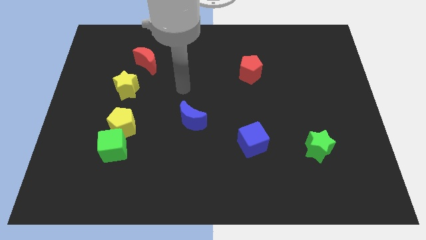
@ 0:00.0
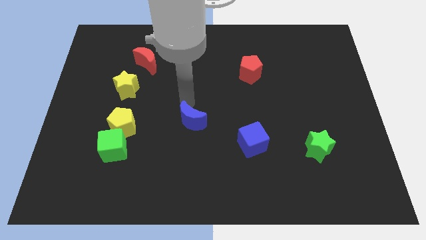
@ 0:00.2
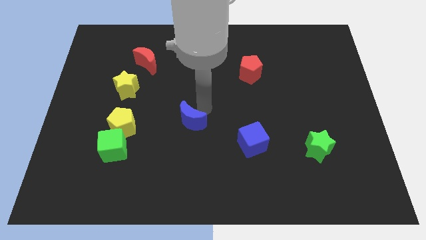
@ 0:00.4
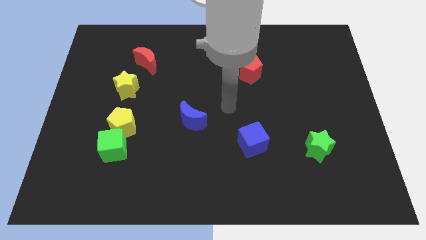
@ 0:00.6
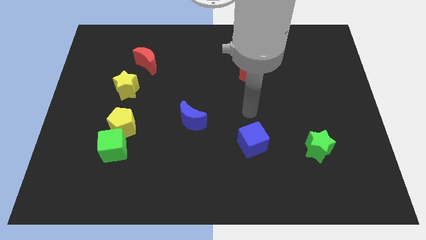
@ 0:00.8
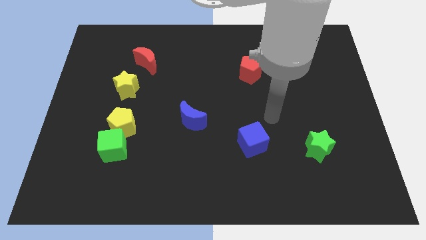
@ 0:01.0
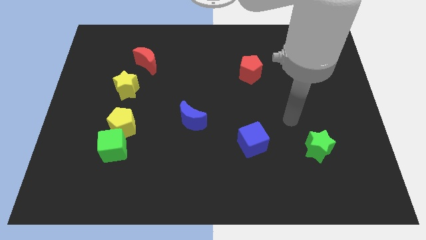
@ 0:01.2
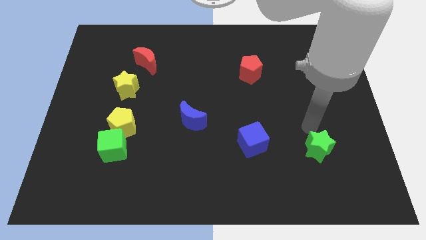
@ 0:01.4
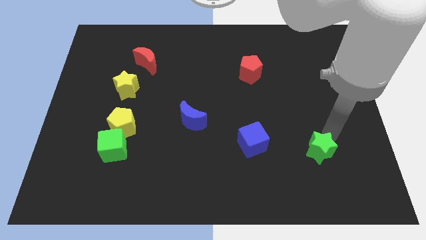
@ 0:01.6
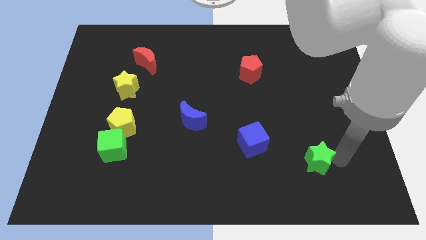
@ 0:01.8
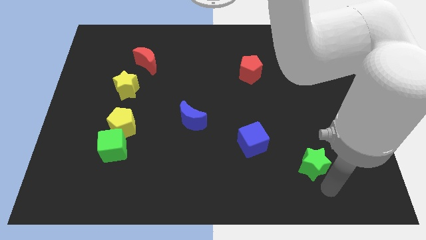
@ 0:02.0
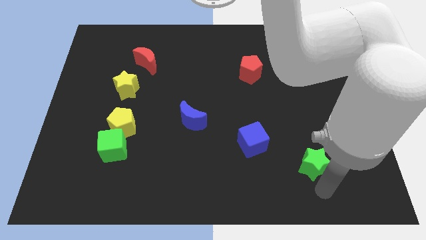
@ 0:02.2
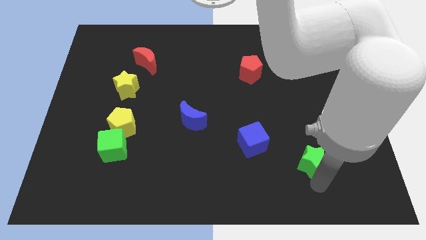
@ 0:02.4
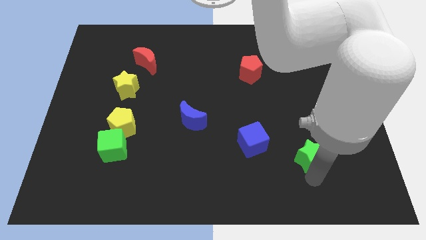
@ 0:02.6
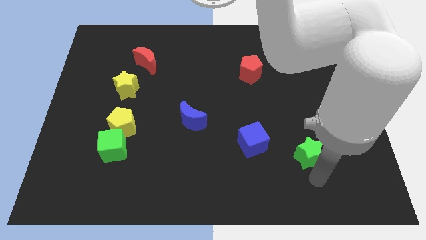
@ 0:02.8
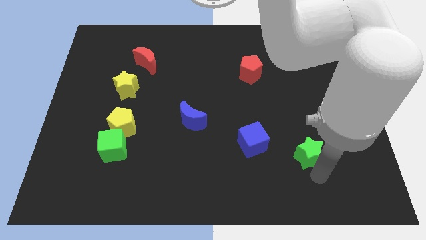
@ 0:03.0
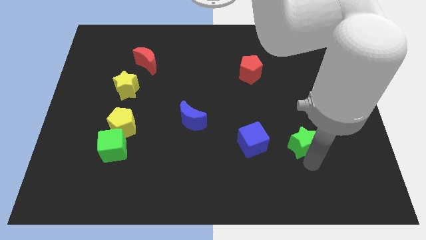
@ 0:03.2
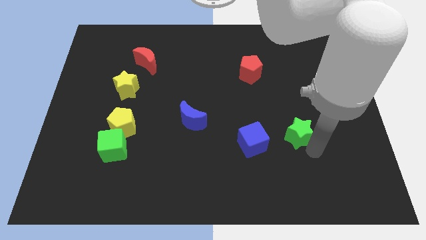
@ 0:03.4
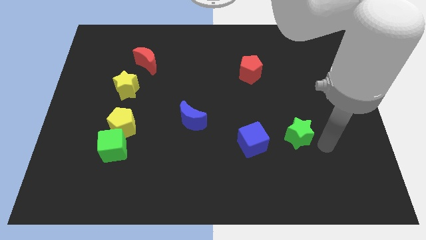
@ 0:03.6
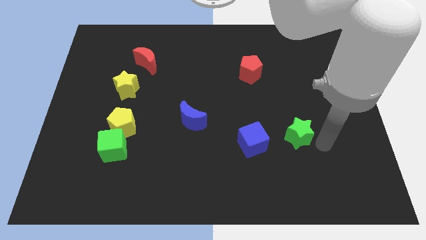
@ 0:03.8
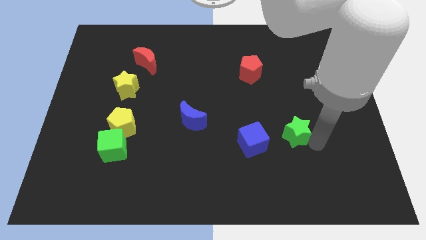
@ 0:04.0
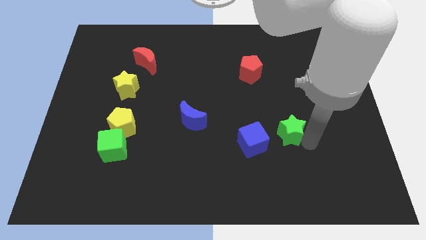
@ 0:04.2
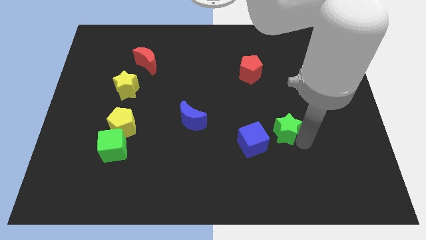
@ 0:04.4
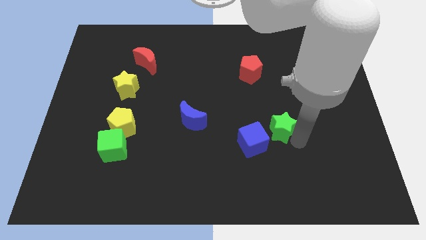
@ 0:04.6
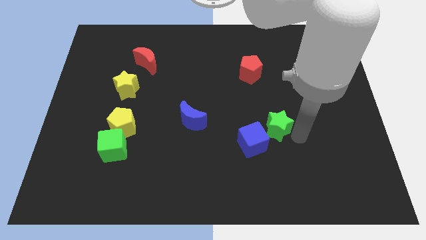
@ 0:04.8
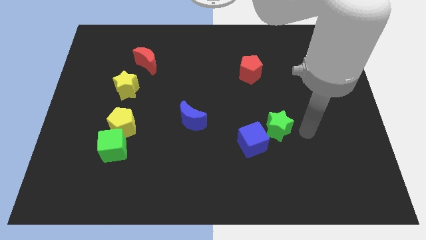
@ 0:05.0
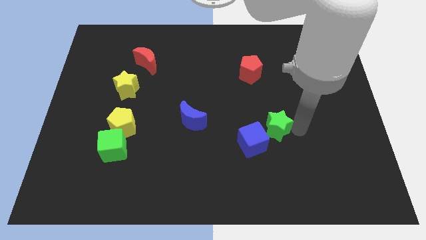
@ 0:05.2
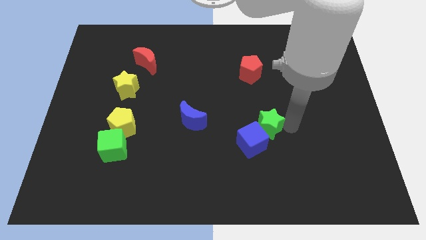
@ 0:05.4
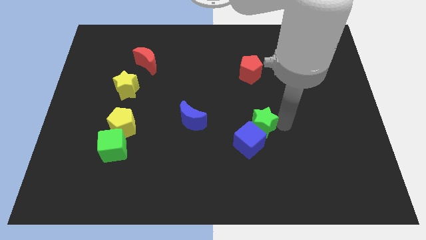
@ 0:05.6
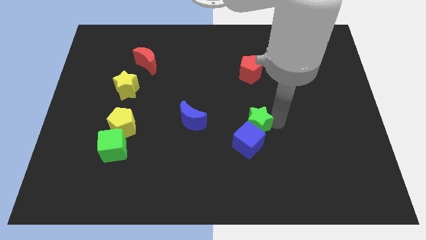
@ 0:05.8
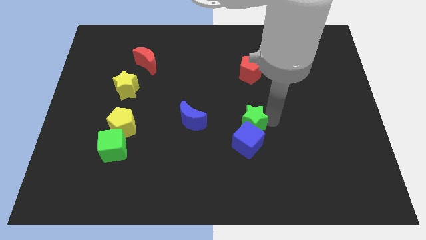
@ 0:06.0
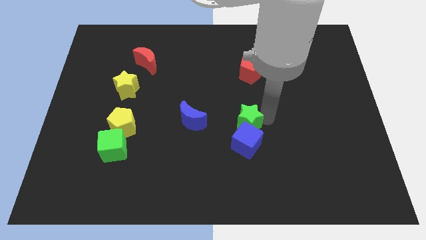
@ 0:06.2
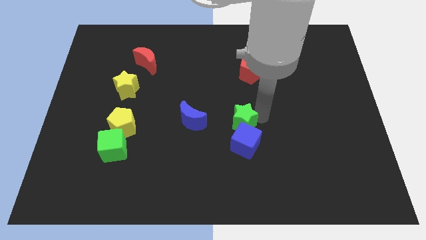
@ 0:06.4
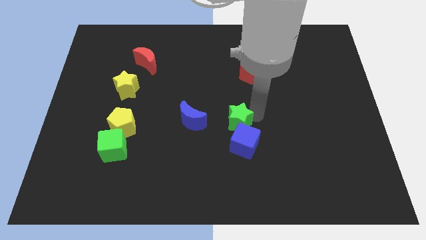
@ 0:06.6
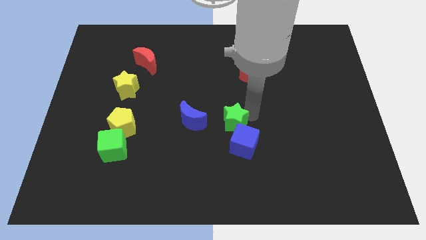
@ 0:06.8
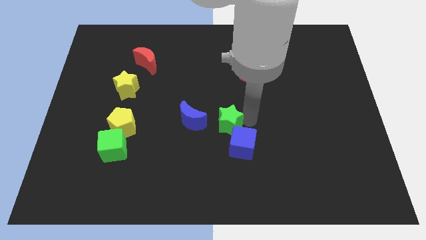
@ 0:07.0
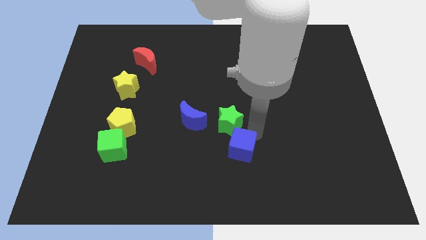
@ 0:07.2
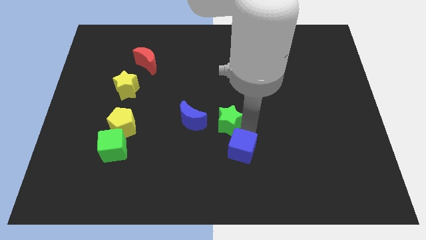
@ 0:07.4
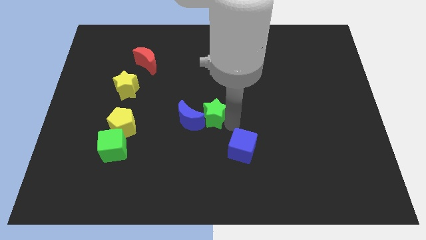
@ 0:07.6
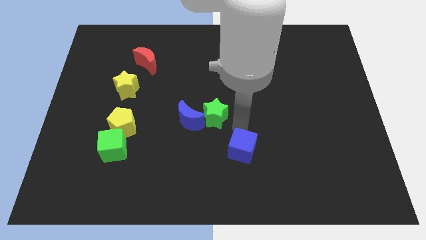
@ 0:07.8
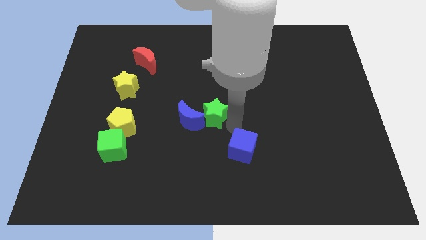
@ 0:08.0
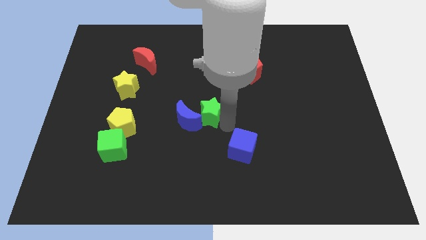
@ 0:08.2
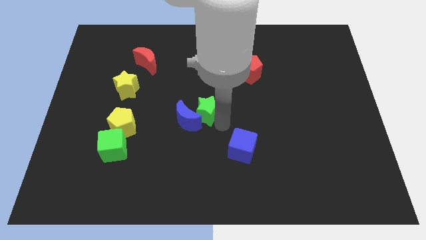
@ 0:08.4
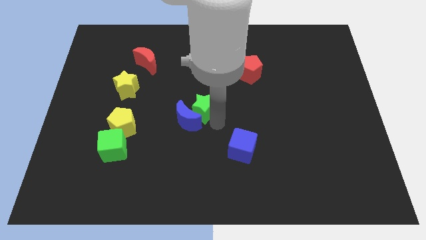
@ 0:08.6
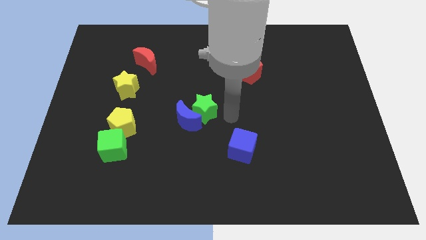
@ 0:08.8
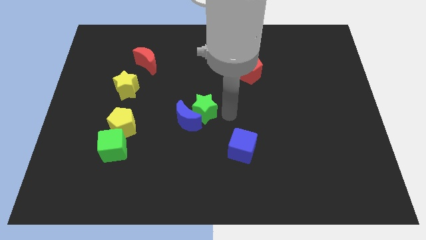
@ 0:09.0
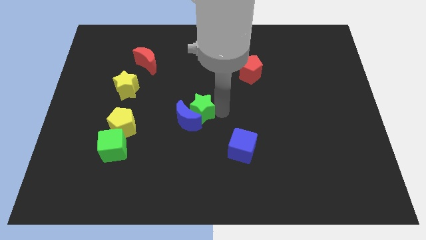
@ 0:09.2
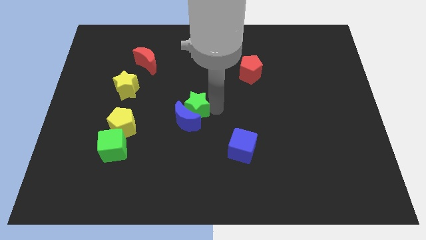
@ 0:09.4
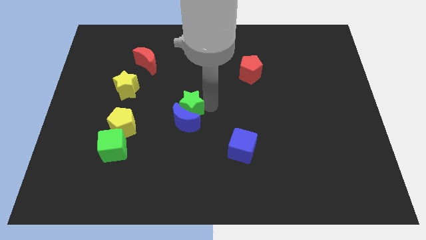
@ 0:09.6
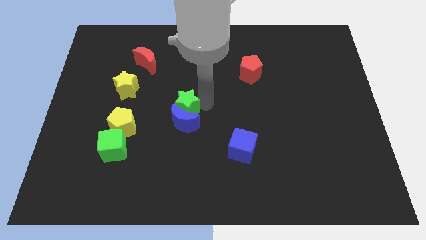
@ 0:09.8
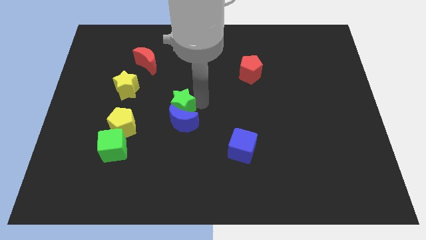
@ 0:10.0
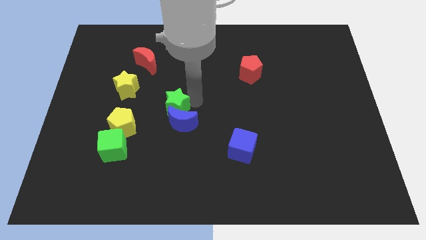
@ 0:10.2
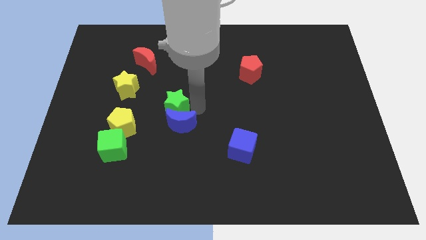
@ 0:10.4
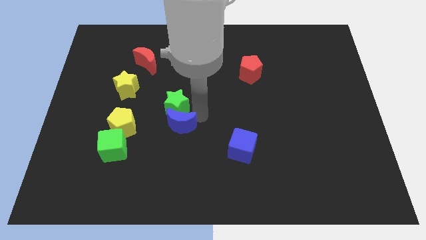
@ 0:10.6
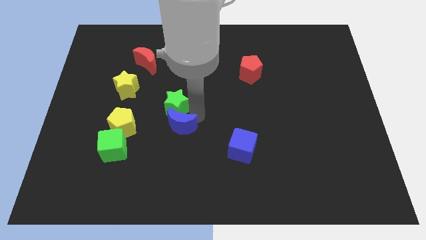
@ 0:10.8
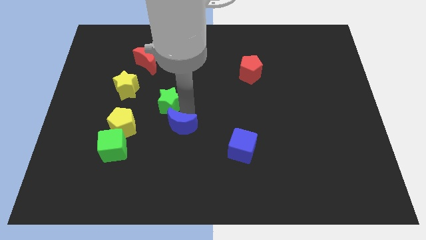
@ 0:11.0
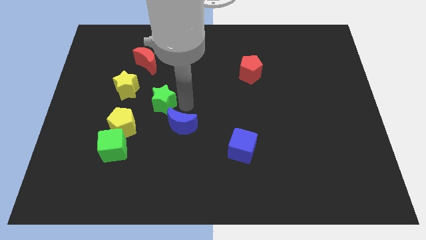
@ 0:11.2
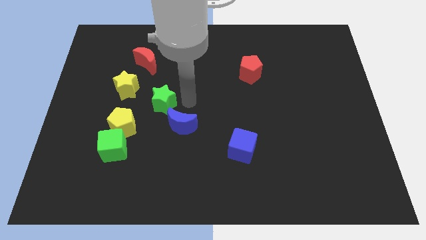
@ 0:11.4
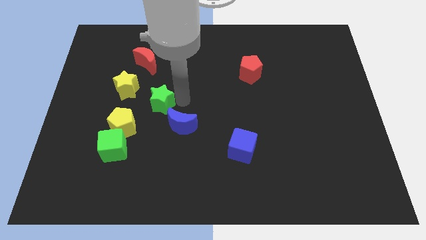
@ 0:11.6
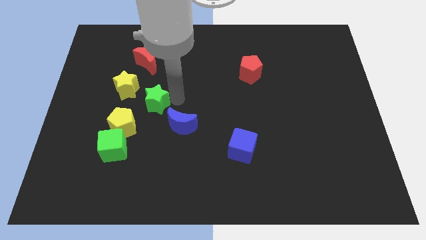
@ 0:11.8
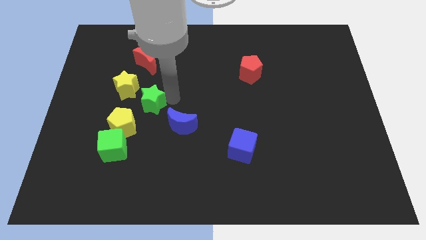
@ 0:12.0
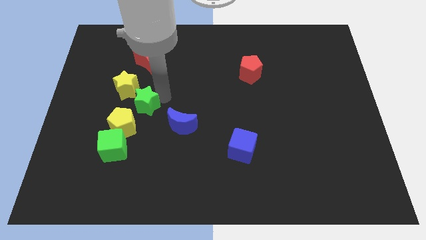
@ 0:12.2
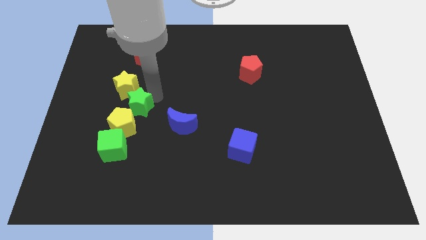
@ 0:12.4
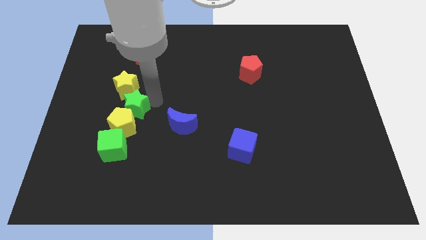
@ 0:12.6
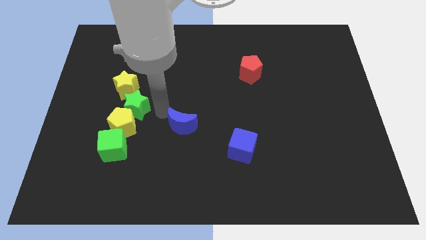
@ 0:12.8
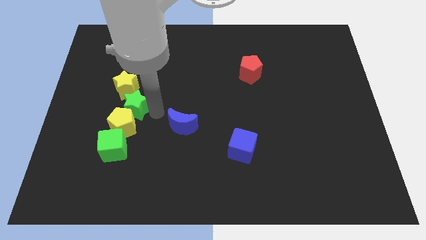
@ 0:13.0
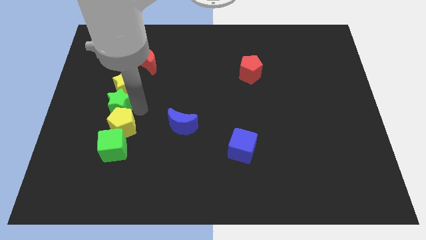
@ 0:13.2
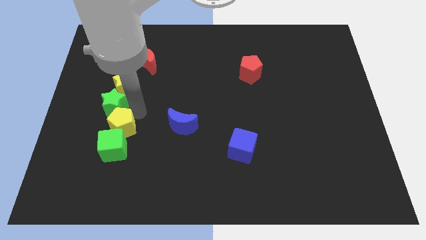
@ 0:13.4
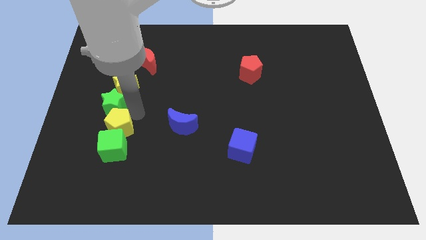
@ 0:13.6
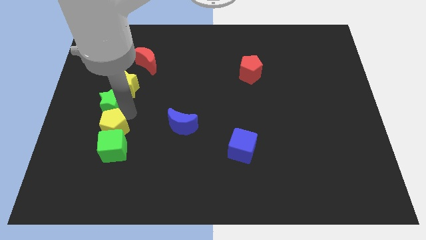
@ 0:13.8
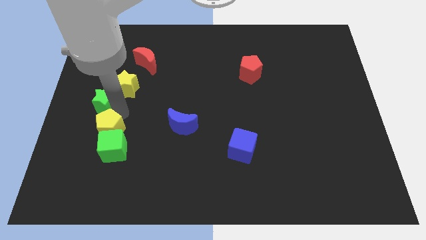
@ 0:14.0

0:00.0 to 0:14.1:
move the green star to the left side of the board
